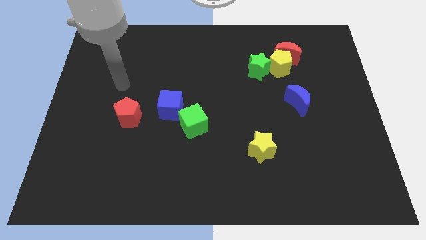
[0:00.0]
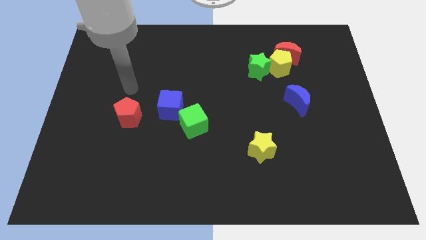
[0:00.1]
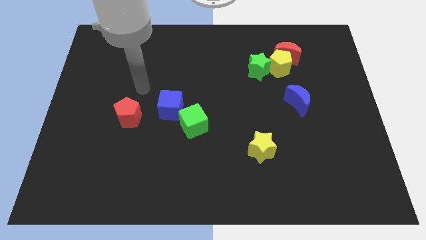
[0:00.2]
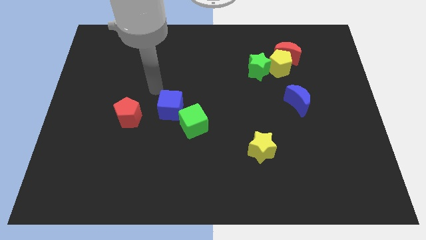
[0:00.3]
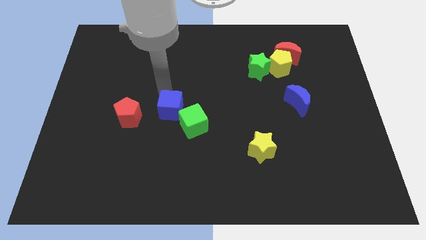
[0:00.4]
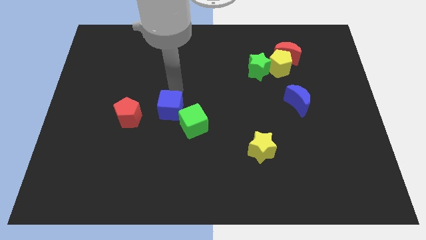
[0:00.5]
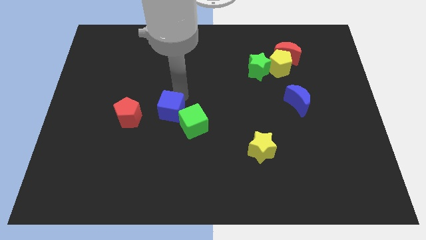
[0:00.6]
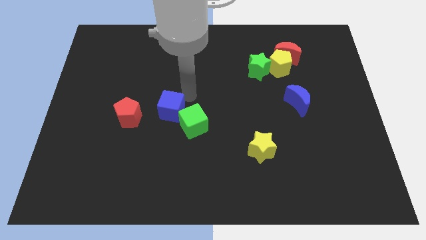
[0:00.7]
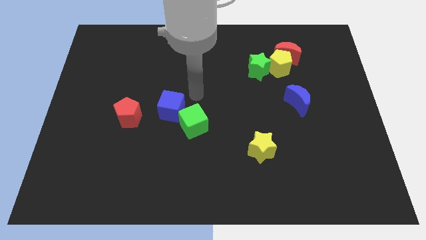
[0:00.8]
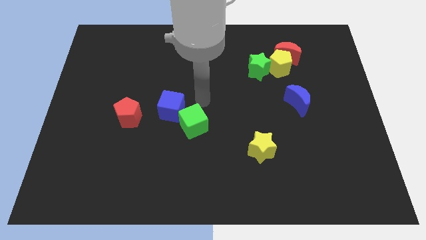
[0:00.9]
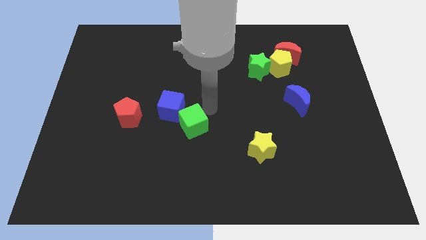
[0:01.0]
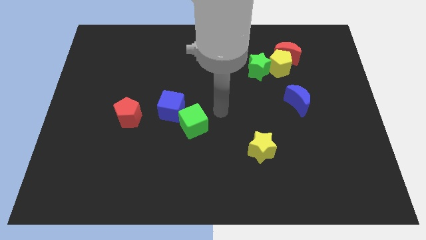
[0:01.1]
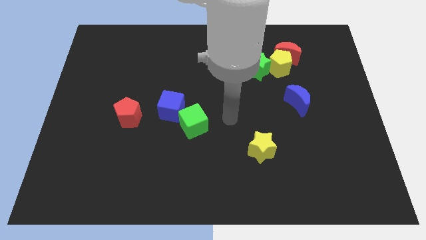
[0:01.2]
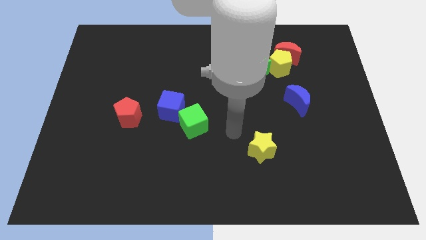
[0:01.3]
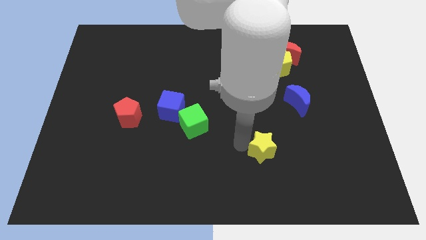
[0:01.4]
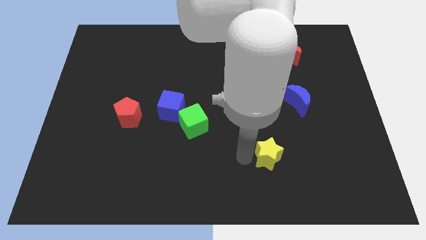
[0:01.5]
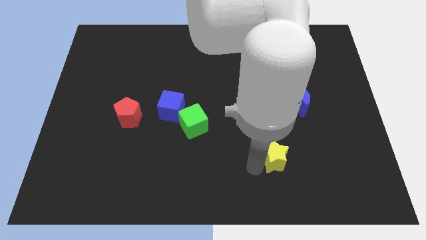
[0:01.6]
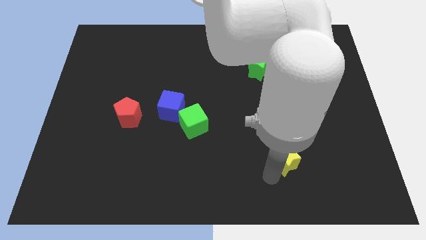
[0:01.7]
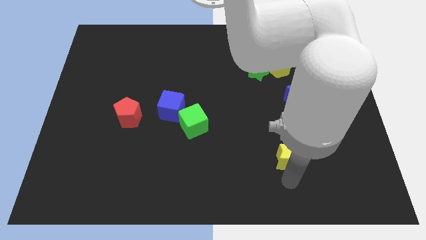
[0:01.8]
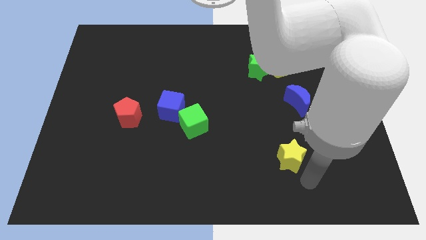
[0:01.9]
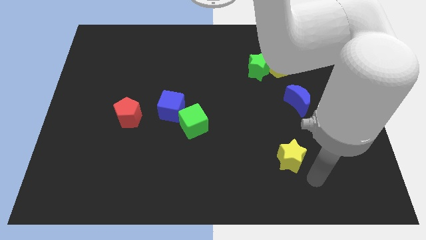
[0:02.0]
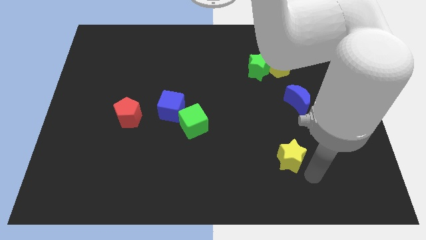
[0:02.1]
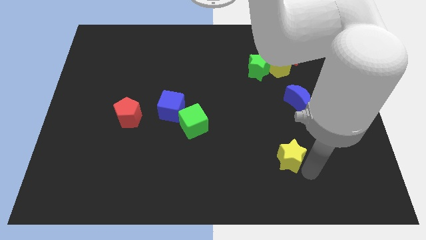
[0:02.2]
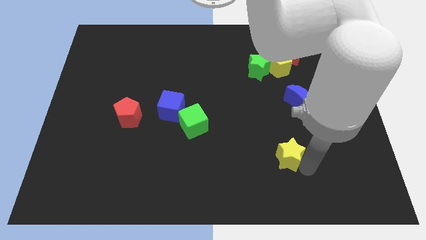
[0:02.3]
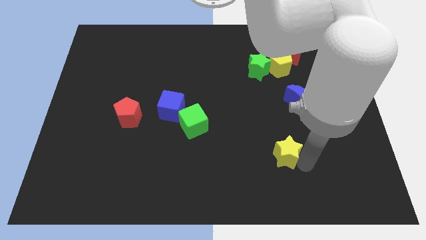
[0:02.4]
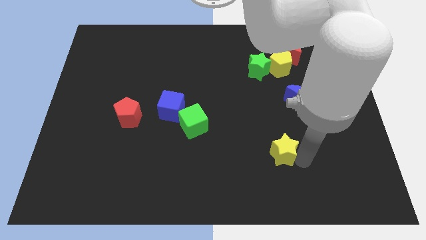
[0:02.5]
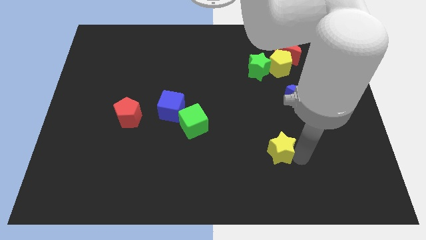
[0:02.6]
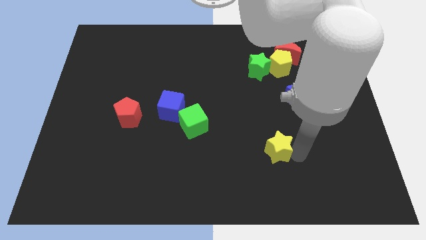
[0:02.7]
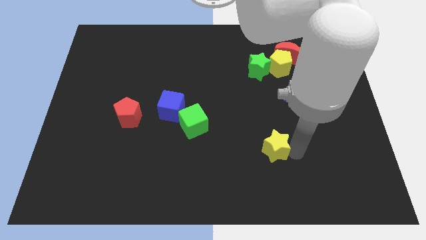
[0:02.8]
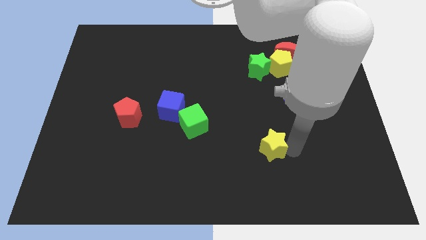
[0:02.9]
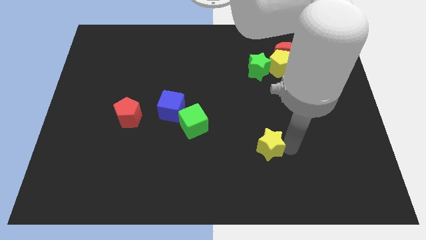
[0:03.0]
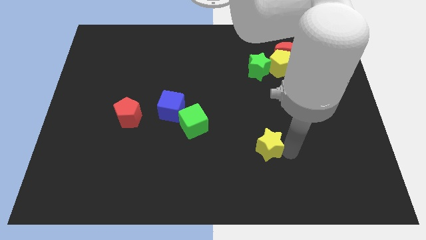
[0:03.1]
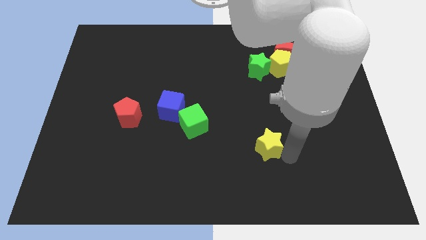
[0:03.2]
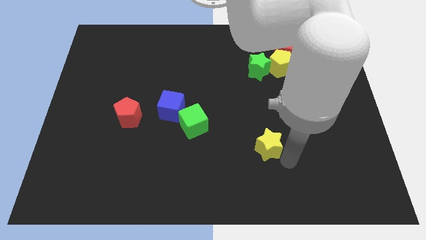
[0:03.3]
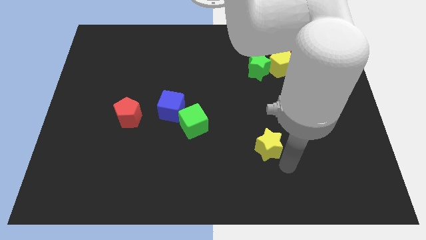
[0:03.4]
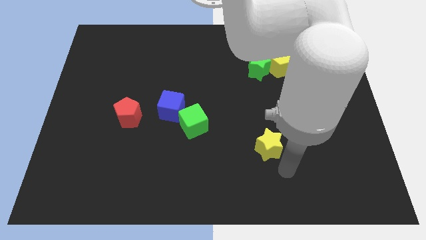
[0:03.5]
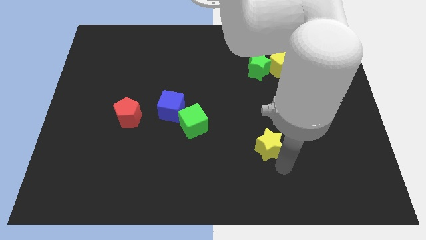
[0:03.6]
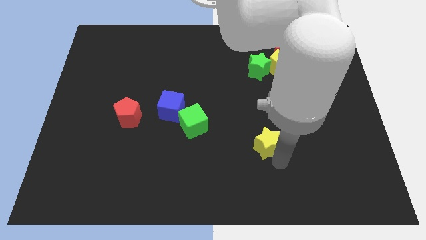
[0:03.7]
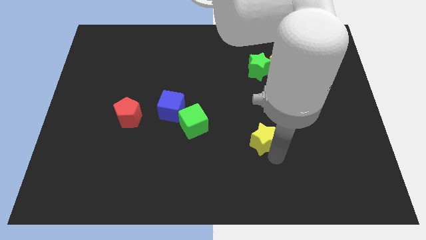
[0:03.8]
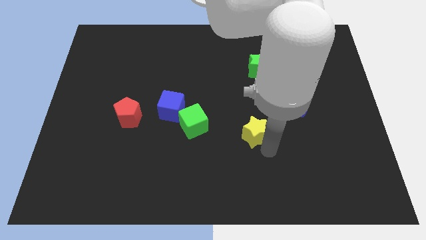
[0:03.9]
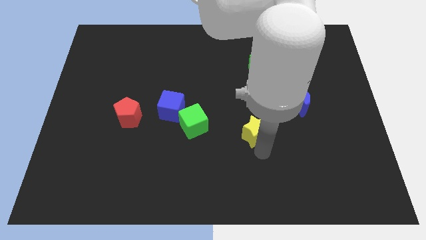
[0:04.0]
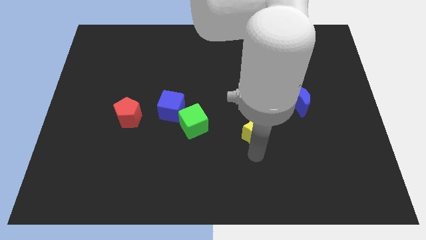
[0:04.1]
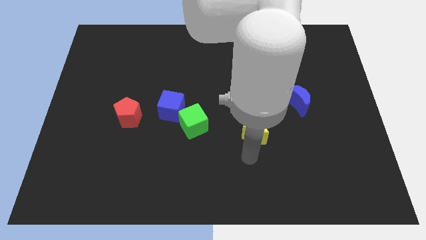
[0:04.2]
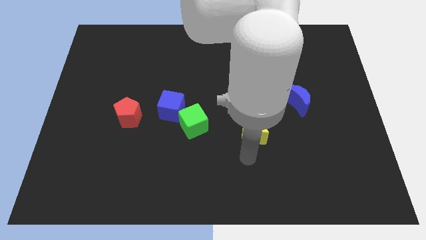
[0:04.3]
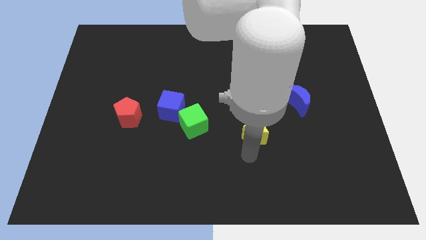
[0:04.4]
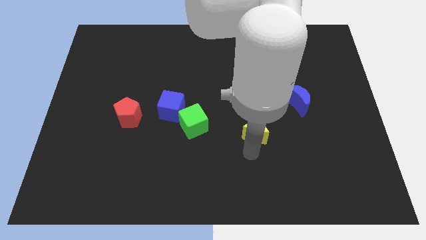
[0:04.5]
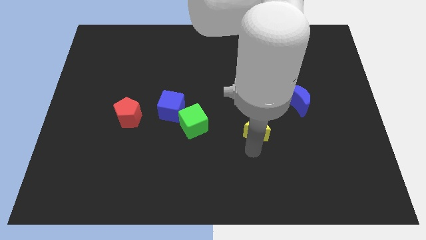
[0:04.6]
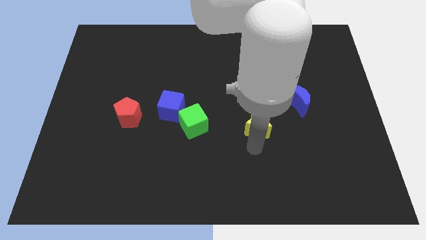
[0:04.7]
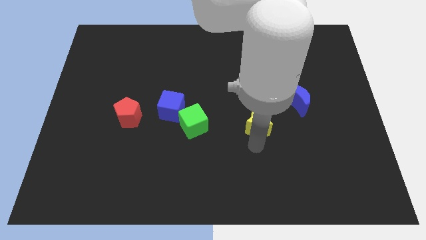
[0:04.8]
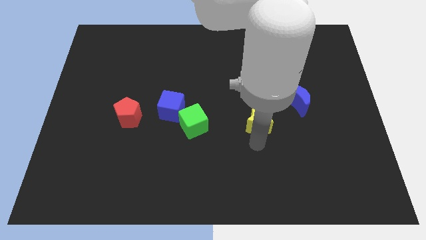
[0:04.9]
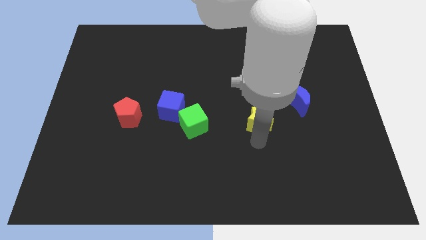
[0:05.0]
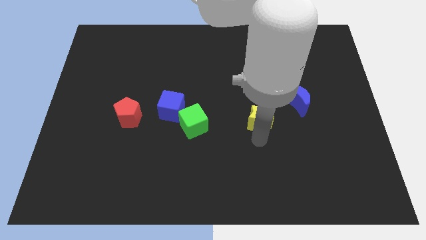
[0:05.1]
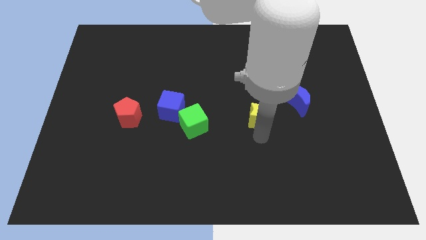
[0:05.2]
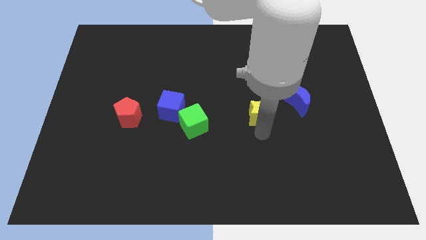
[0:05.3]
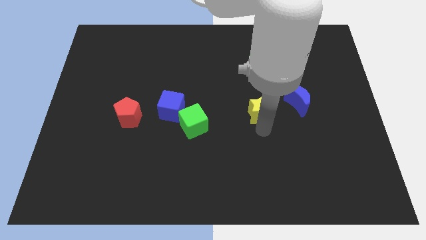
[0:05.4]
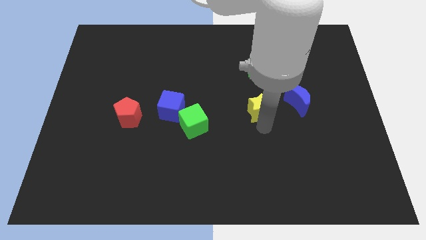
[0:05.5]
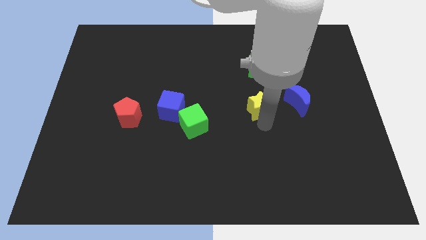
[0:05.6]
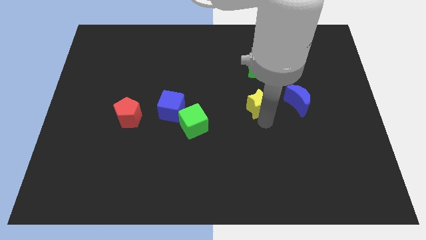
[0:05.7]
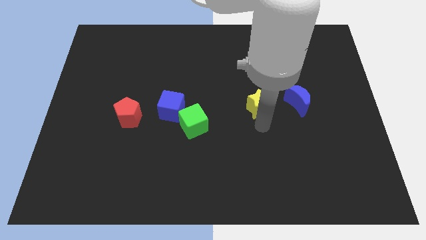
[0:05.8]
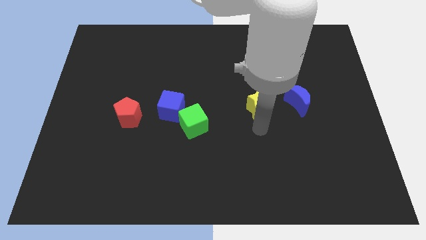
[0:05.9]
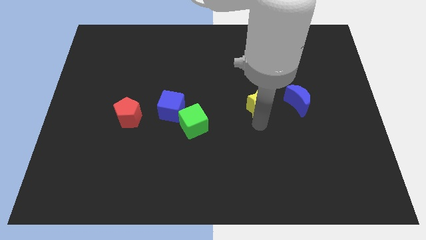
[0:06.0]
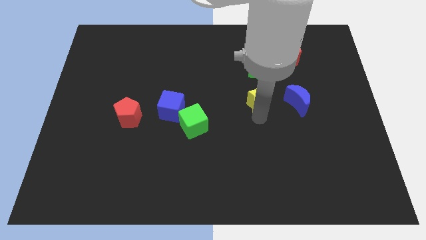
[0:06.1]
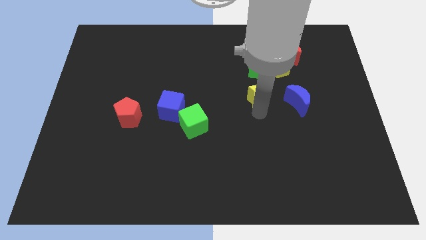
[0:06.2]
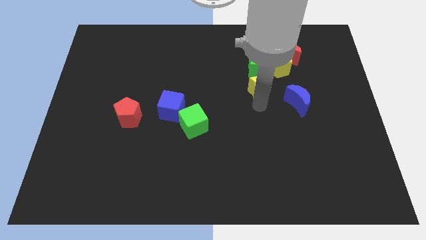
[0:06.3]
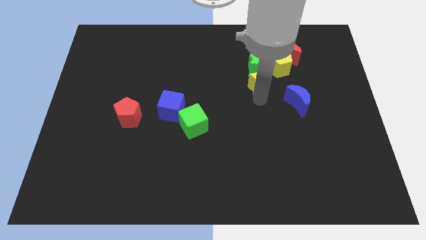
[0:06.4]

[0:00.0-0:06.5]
move the yellow star to the green star

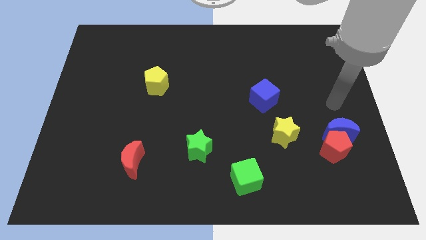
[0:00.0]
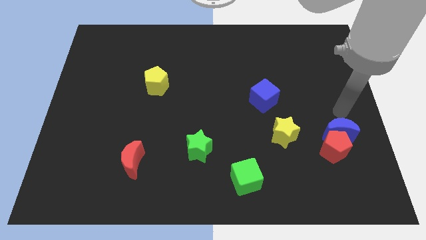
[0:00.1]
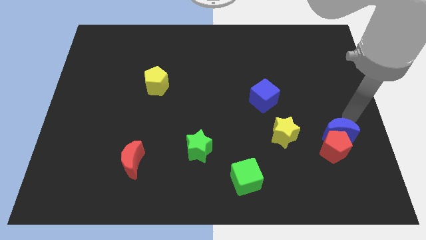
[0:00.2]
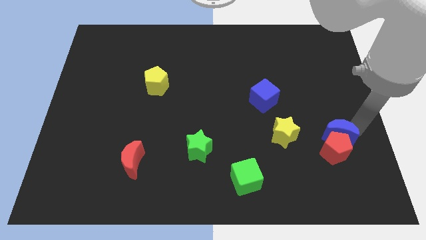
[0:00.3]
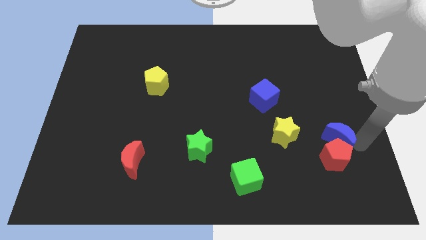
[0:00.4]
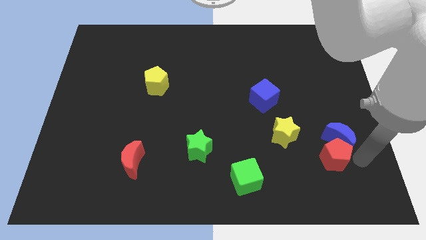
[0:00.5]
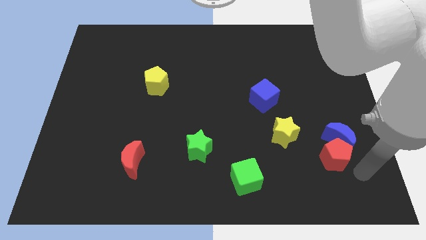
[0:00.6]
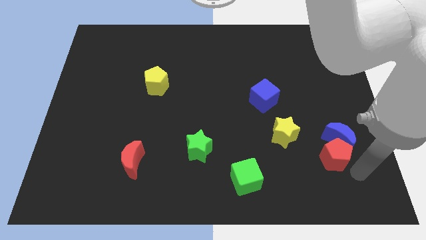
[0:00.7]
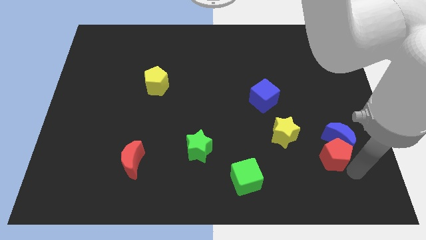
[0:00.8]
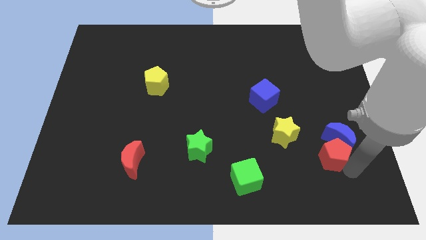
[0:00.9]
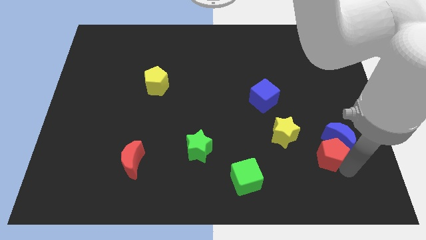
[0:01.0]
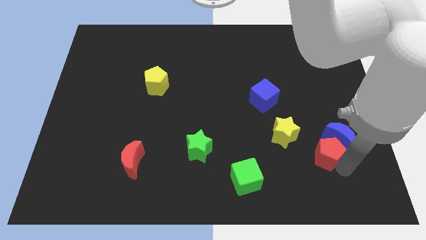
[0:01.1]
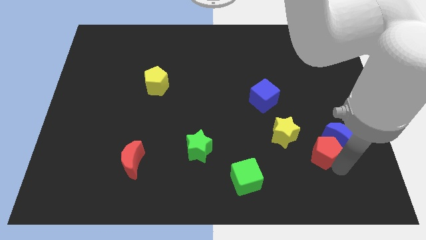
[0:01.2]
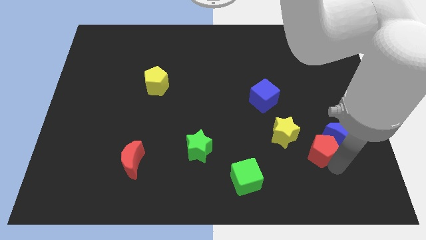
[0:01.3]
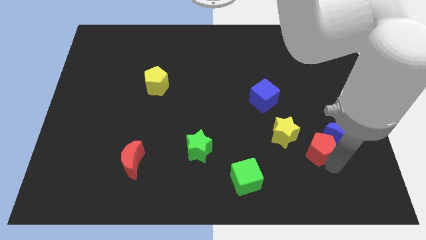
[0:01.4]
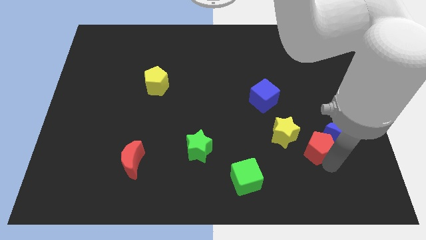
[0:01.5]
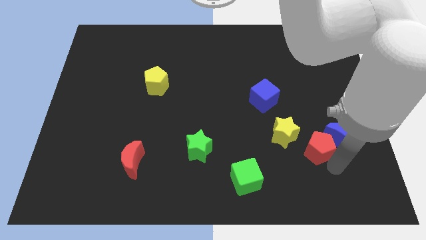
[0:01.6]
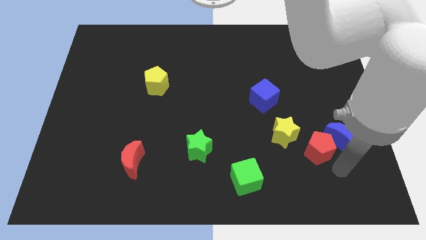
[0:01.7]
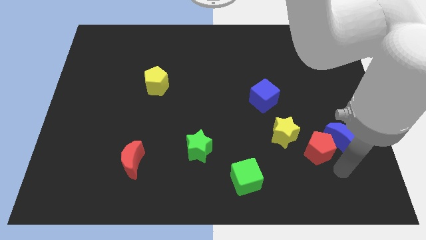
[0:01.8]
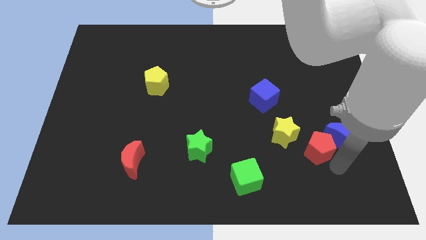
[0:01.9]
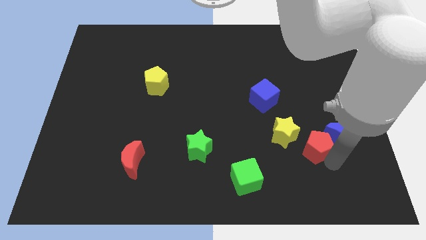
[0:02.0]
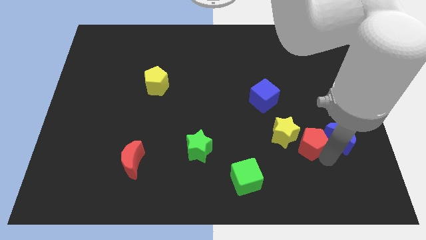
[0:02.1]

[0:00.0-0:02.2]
put the red pentagon to the yellow star
